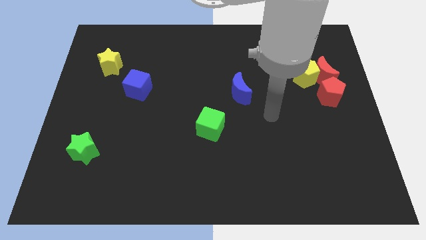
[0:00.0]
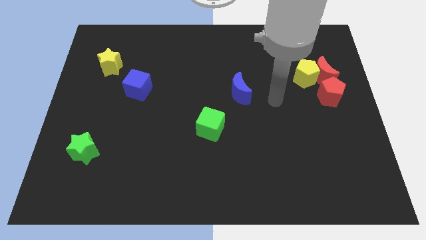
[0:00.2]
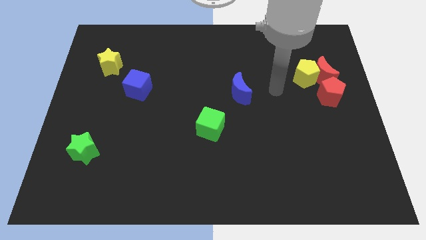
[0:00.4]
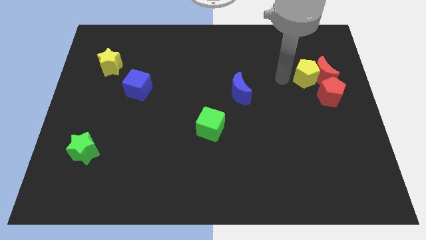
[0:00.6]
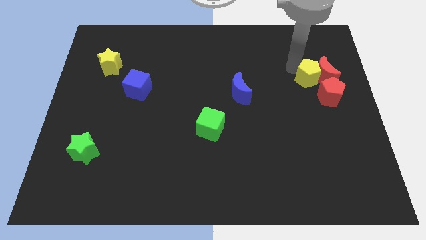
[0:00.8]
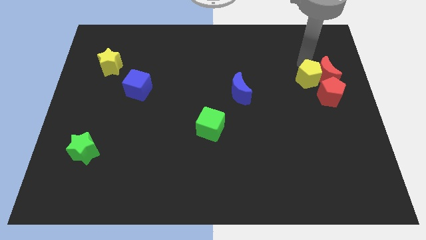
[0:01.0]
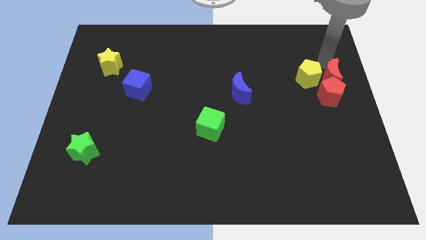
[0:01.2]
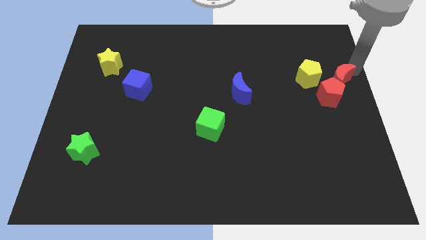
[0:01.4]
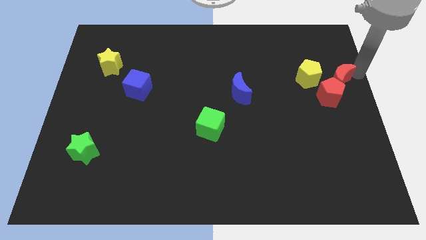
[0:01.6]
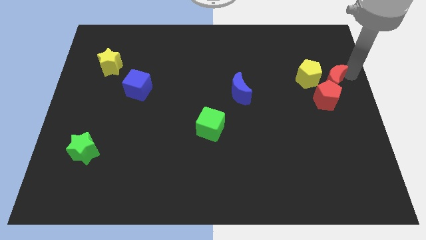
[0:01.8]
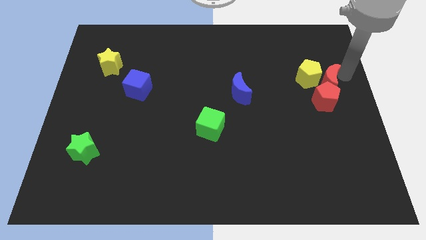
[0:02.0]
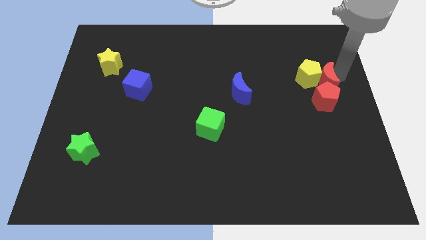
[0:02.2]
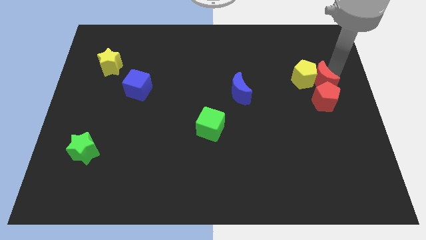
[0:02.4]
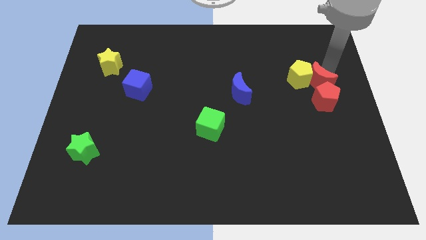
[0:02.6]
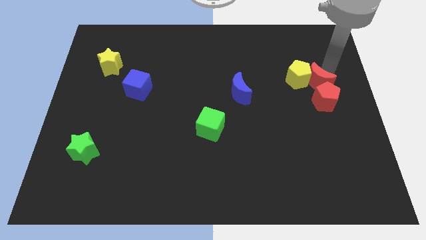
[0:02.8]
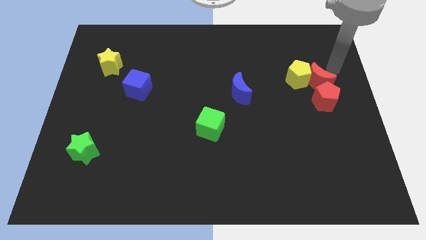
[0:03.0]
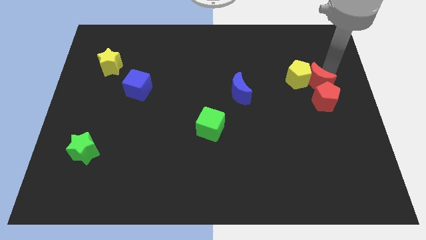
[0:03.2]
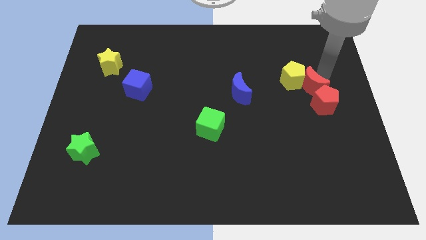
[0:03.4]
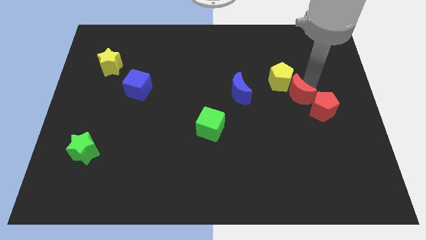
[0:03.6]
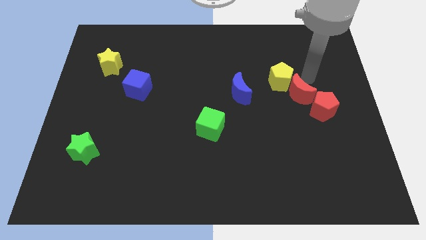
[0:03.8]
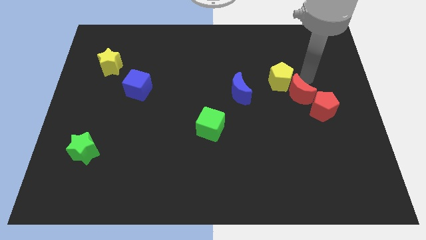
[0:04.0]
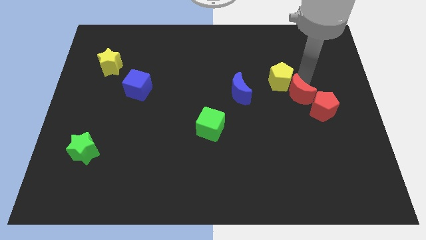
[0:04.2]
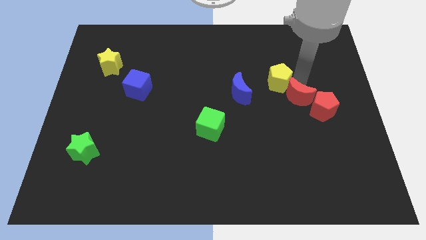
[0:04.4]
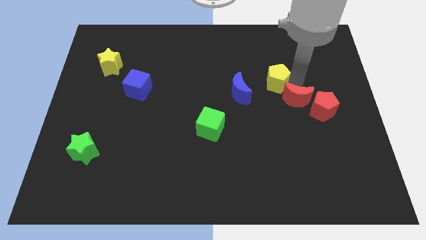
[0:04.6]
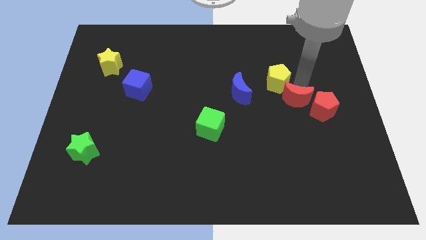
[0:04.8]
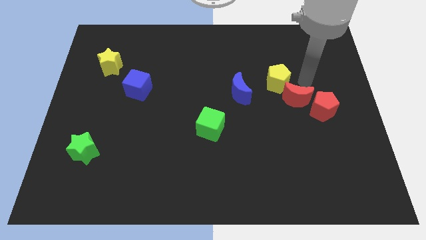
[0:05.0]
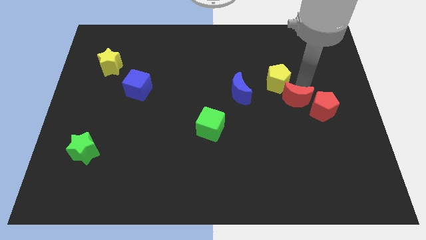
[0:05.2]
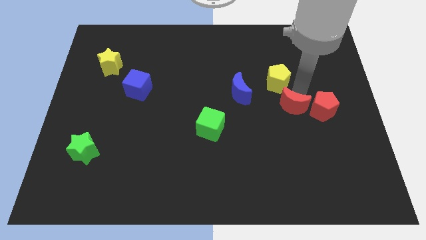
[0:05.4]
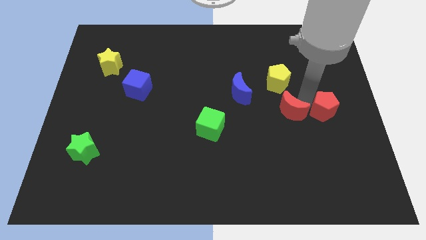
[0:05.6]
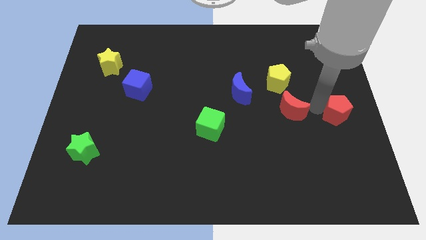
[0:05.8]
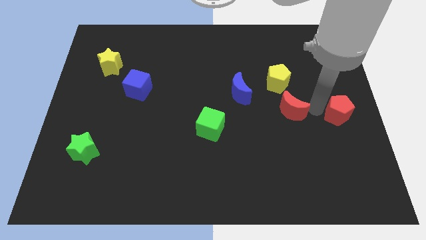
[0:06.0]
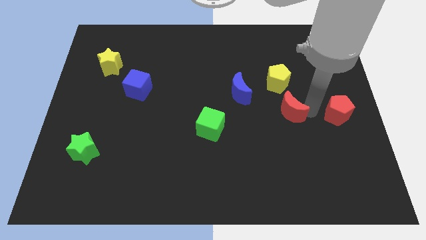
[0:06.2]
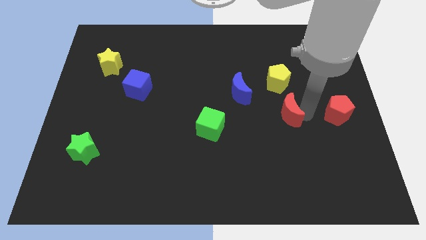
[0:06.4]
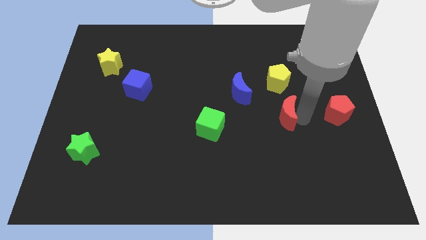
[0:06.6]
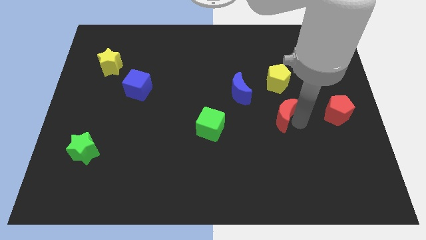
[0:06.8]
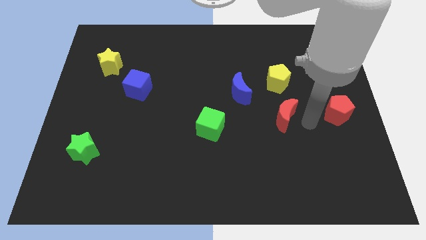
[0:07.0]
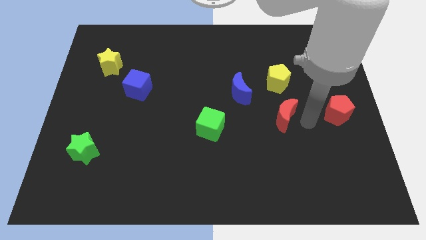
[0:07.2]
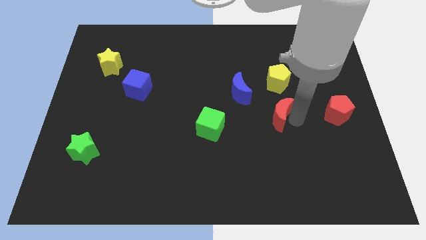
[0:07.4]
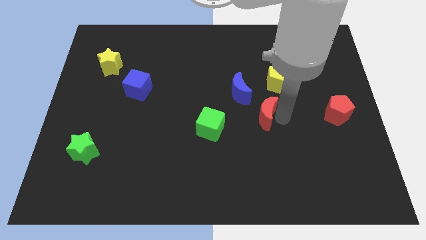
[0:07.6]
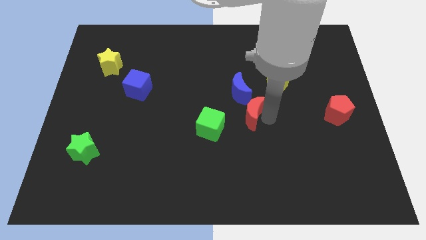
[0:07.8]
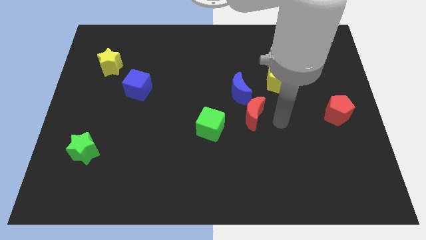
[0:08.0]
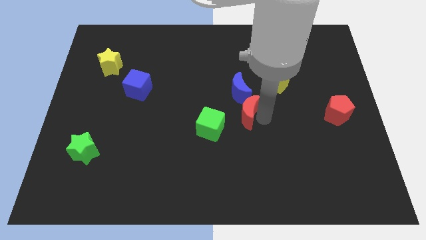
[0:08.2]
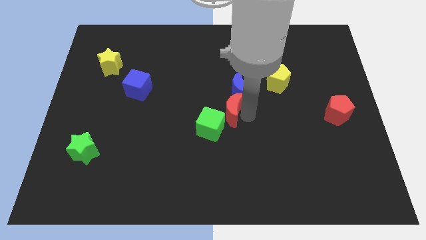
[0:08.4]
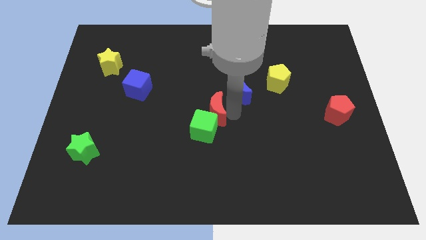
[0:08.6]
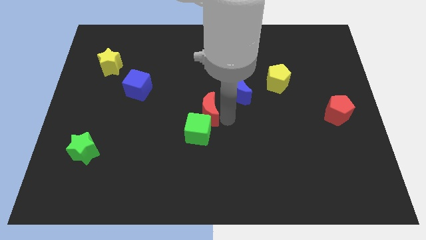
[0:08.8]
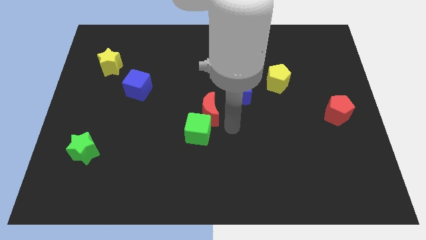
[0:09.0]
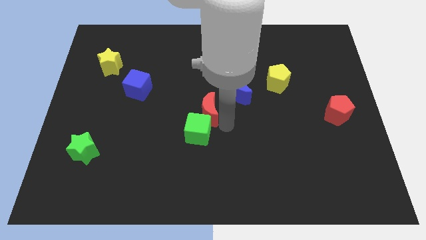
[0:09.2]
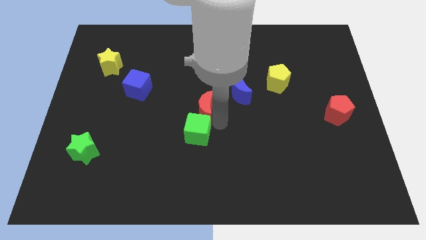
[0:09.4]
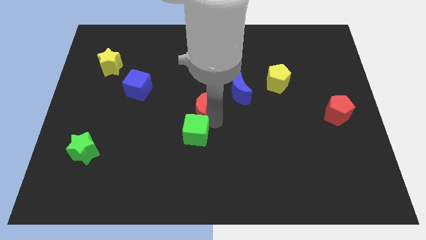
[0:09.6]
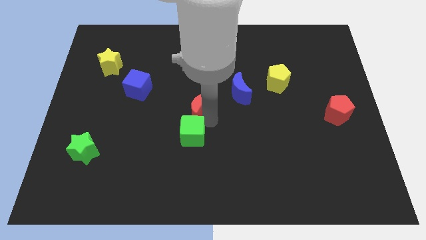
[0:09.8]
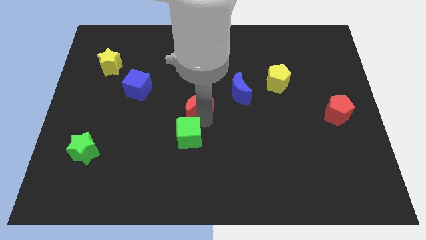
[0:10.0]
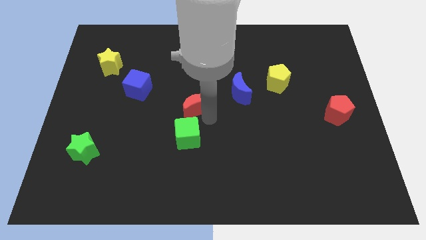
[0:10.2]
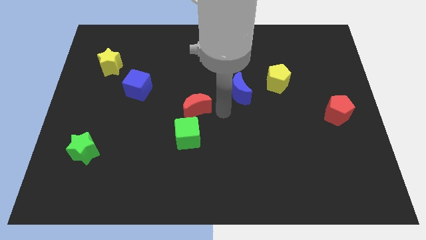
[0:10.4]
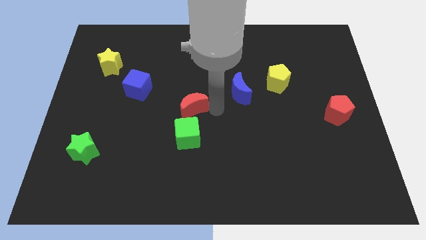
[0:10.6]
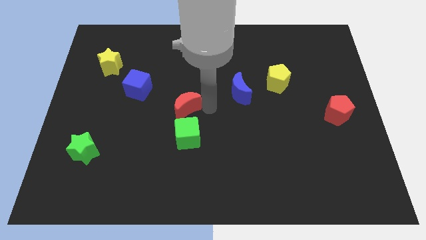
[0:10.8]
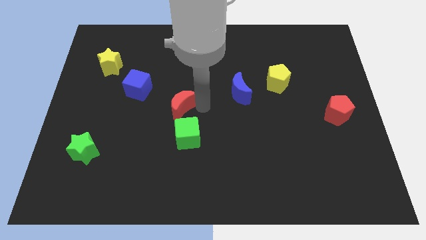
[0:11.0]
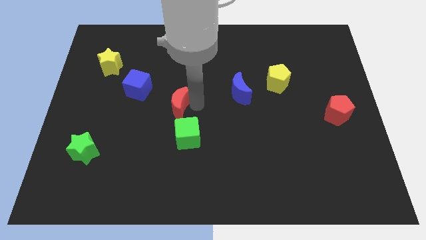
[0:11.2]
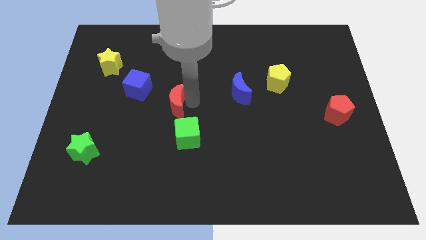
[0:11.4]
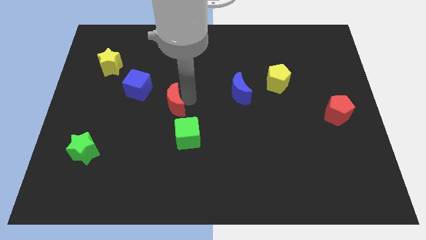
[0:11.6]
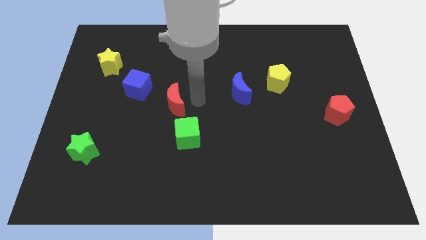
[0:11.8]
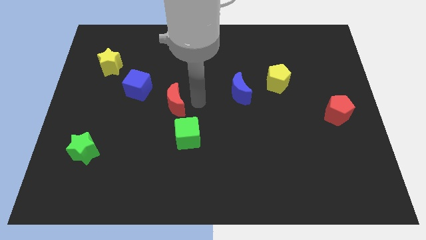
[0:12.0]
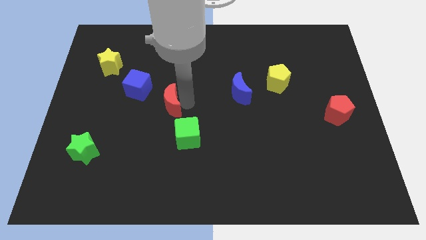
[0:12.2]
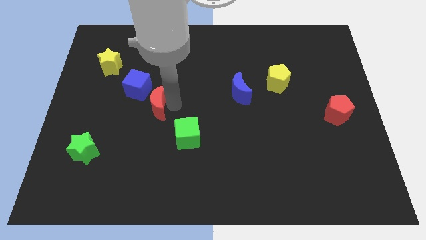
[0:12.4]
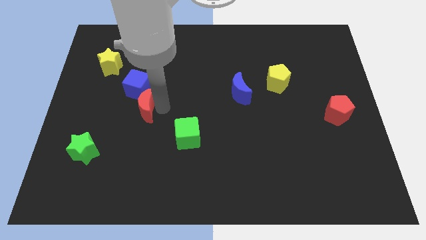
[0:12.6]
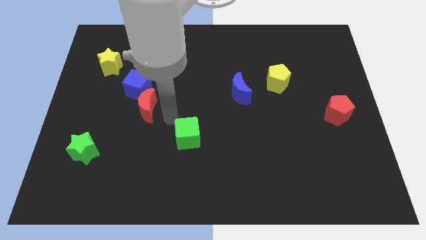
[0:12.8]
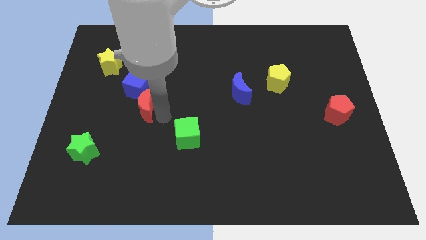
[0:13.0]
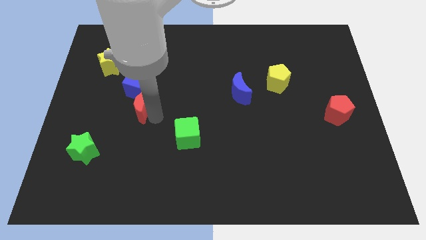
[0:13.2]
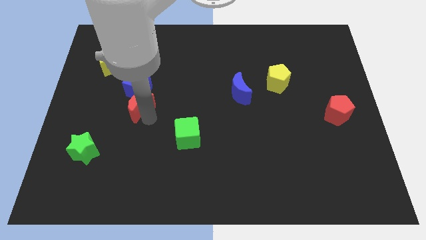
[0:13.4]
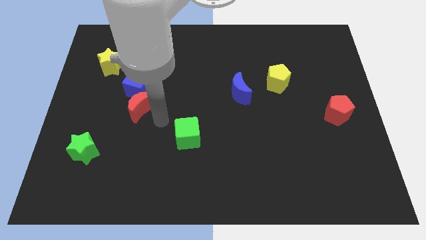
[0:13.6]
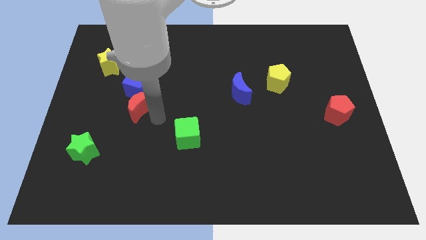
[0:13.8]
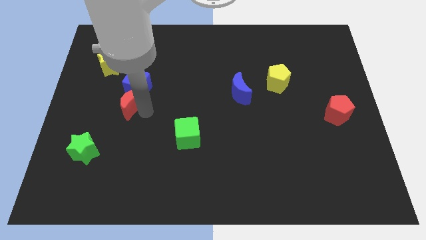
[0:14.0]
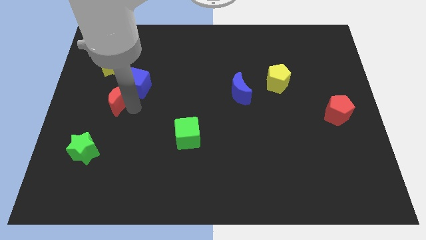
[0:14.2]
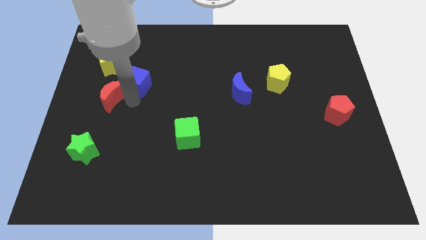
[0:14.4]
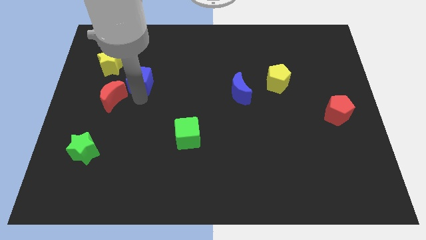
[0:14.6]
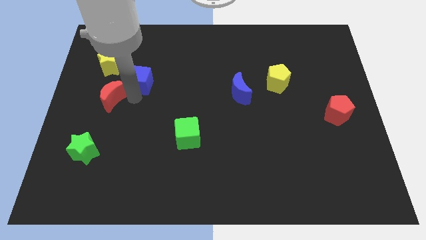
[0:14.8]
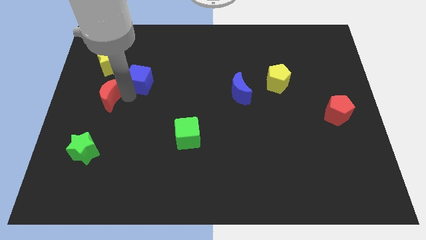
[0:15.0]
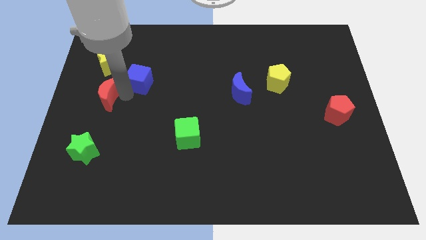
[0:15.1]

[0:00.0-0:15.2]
move the red moon to the left side
